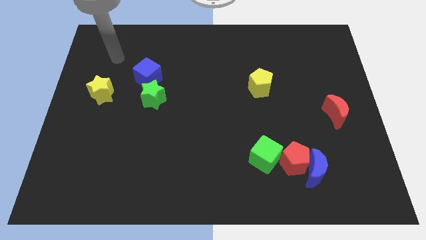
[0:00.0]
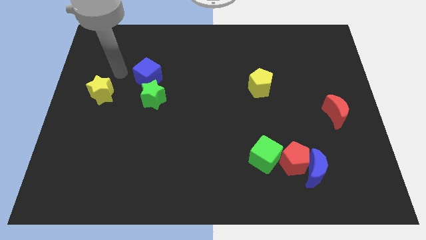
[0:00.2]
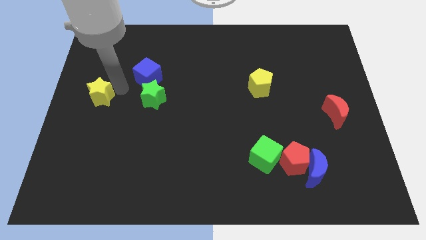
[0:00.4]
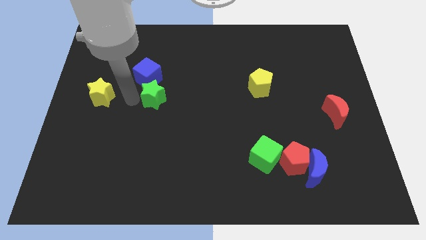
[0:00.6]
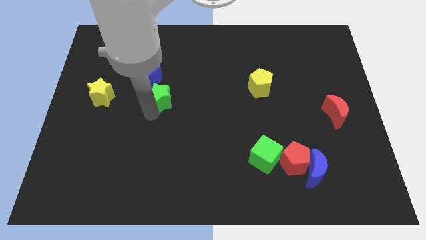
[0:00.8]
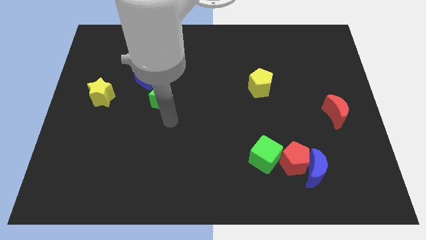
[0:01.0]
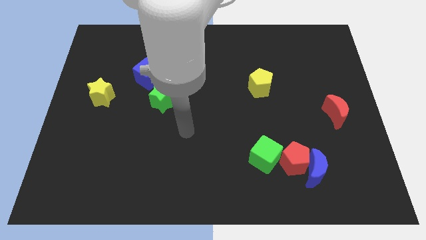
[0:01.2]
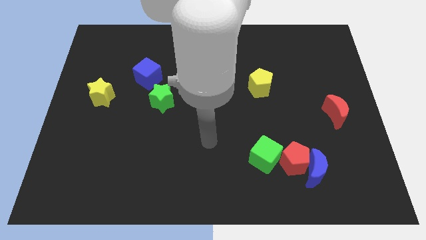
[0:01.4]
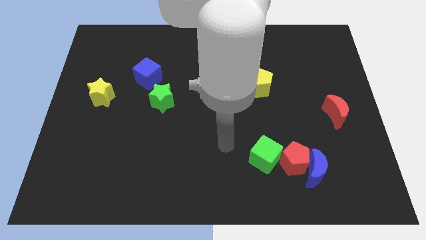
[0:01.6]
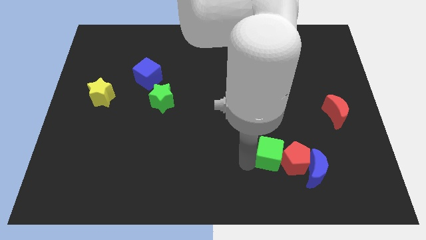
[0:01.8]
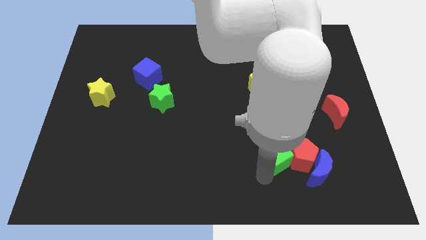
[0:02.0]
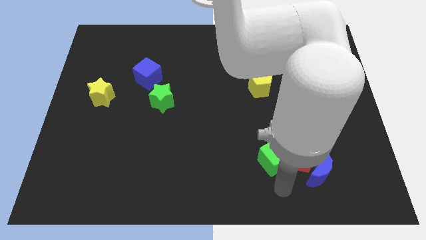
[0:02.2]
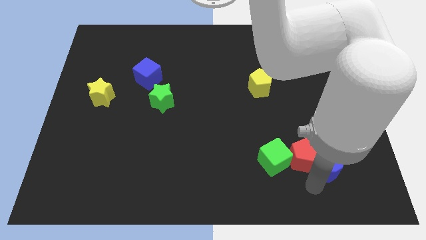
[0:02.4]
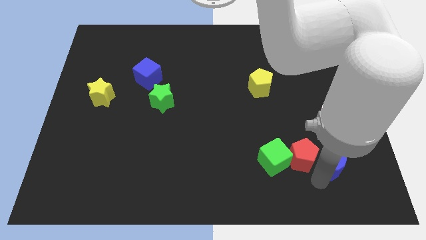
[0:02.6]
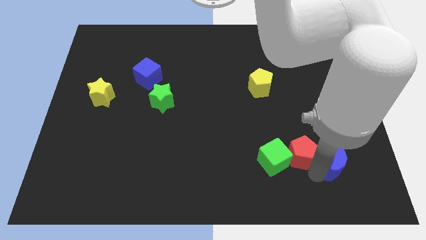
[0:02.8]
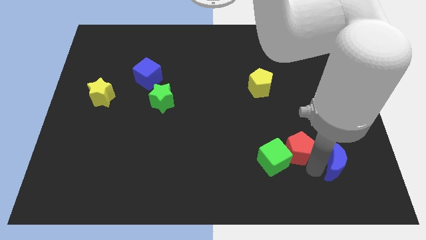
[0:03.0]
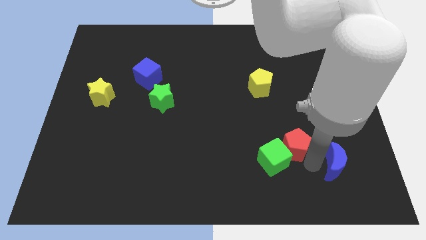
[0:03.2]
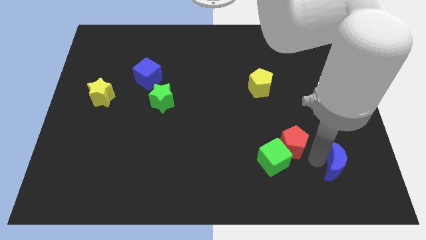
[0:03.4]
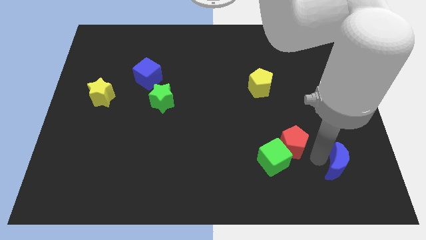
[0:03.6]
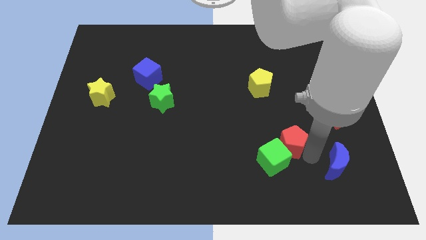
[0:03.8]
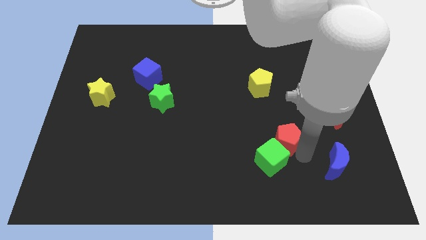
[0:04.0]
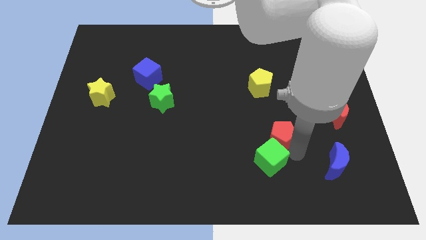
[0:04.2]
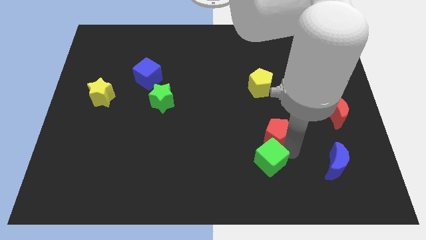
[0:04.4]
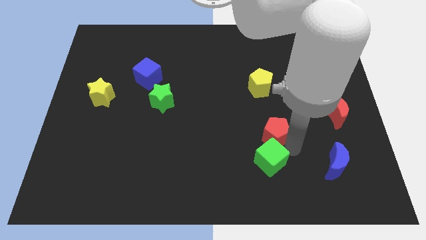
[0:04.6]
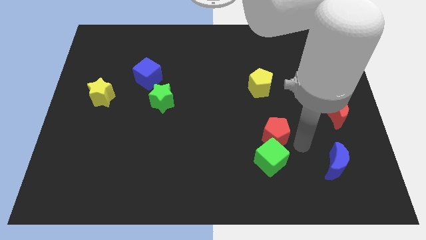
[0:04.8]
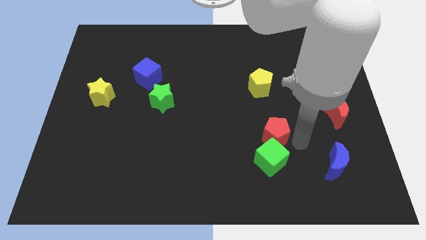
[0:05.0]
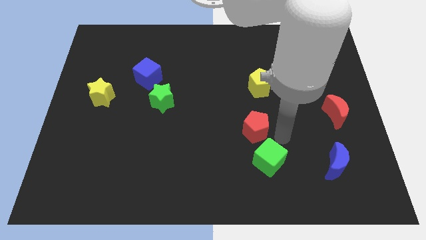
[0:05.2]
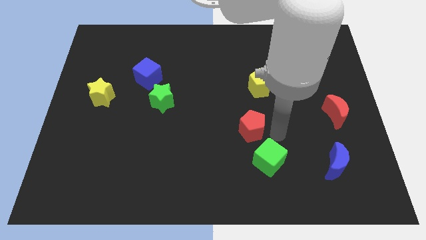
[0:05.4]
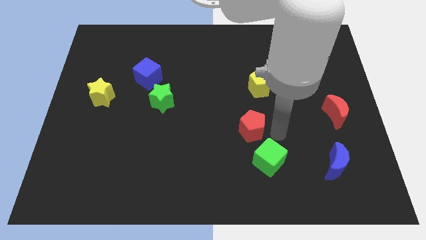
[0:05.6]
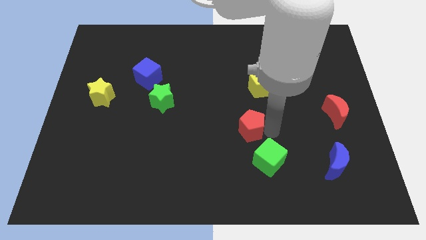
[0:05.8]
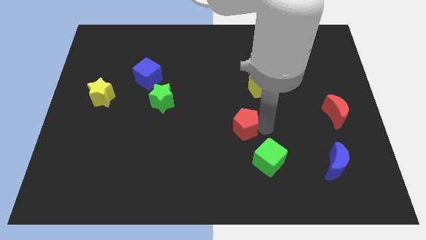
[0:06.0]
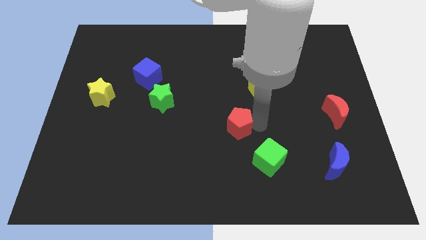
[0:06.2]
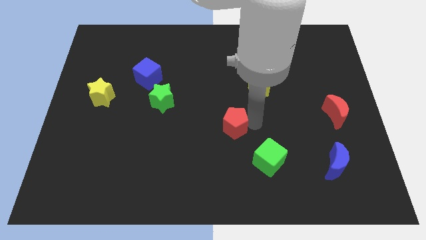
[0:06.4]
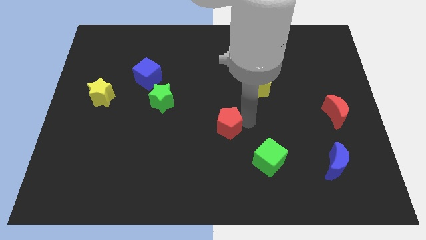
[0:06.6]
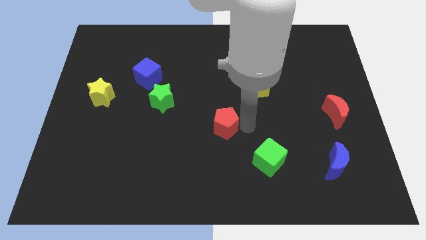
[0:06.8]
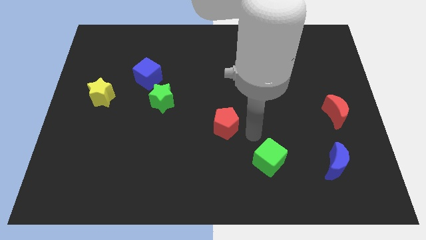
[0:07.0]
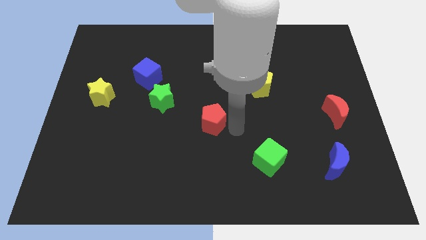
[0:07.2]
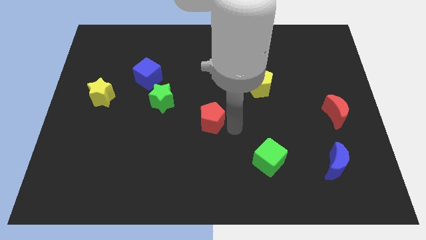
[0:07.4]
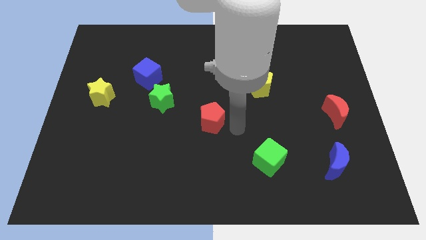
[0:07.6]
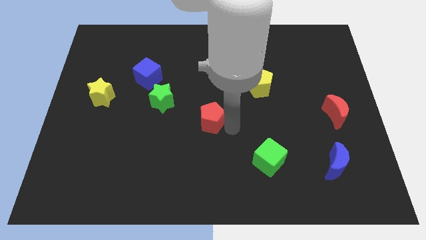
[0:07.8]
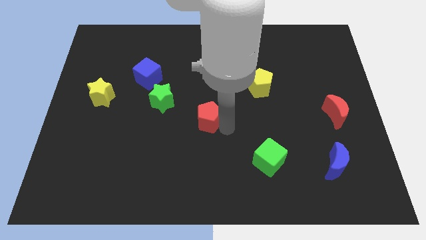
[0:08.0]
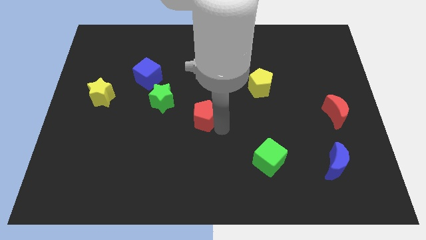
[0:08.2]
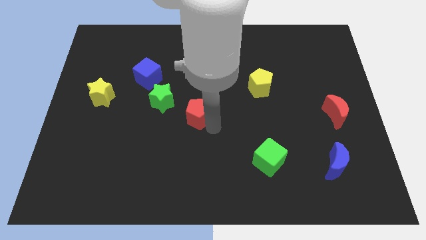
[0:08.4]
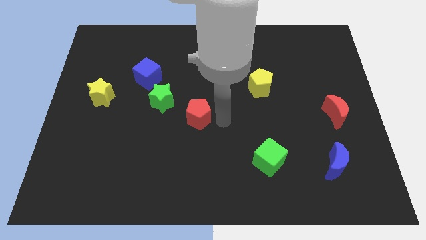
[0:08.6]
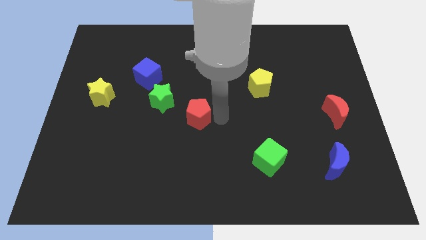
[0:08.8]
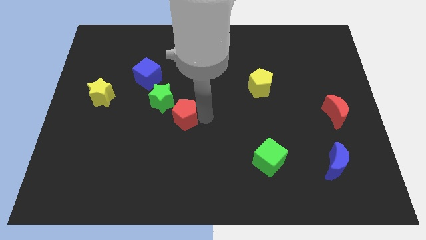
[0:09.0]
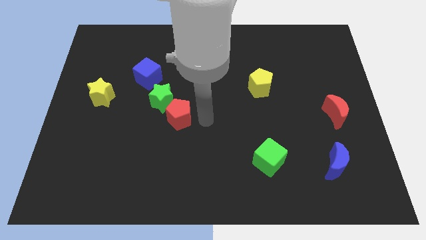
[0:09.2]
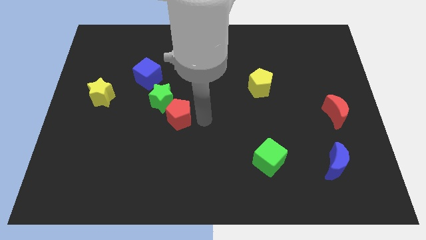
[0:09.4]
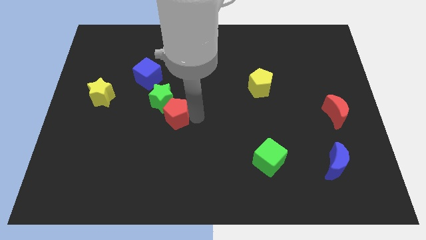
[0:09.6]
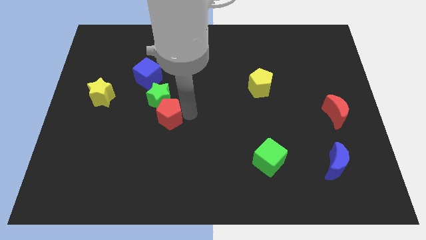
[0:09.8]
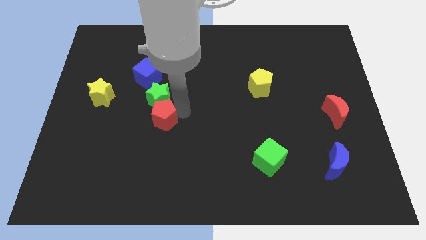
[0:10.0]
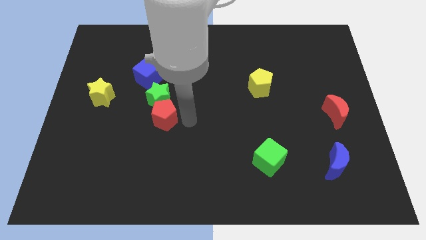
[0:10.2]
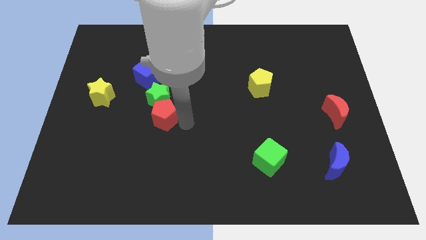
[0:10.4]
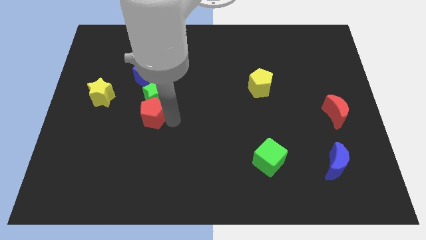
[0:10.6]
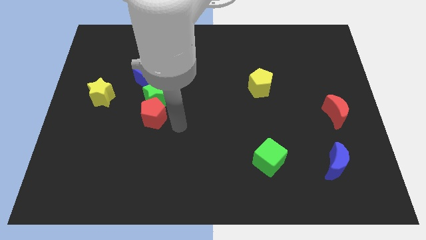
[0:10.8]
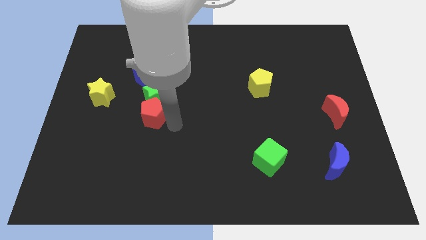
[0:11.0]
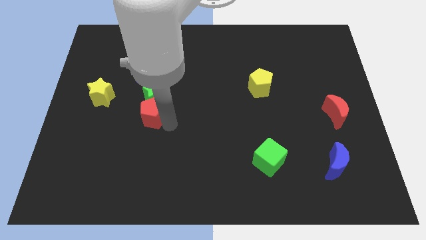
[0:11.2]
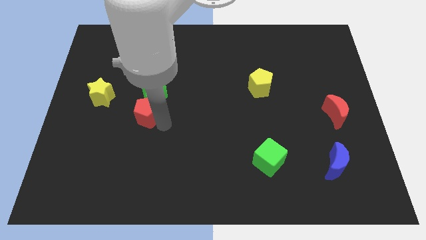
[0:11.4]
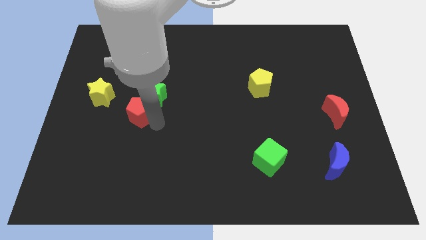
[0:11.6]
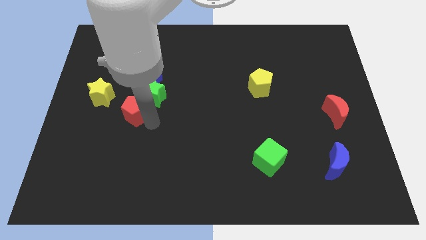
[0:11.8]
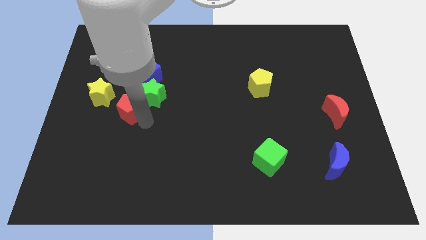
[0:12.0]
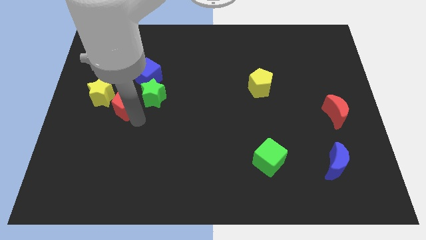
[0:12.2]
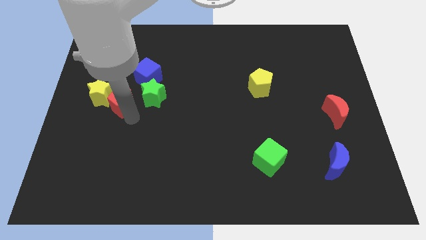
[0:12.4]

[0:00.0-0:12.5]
put the red pentagon towards the yellow star
